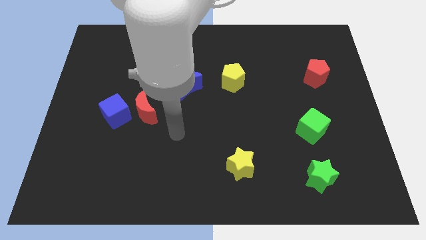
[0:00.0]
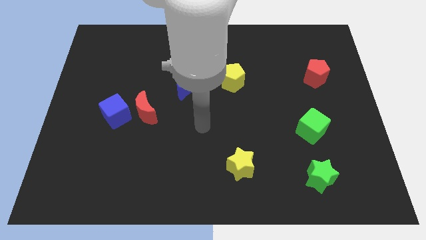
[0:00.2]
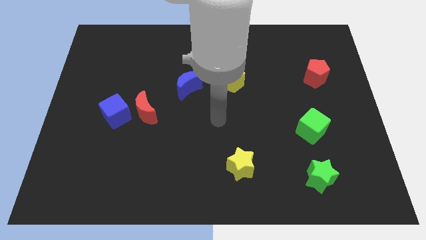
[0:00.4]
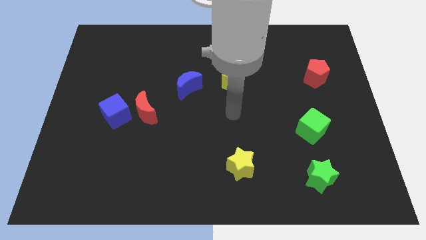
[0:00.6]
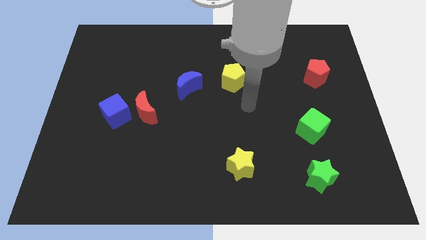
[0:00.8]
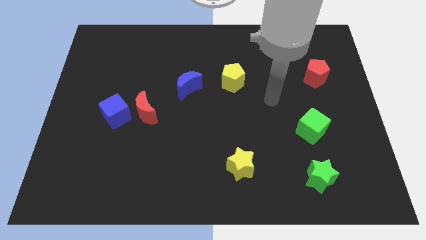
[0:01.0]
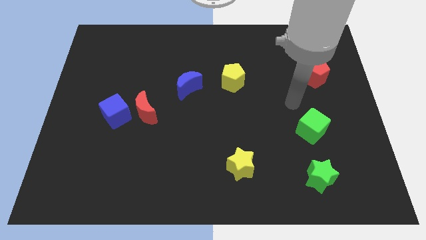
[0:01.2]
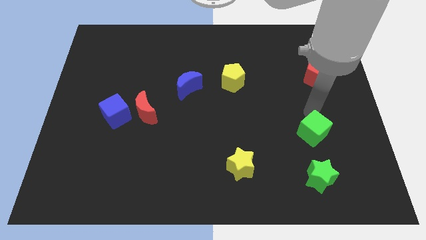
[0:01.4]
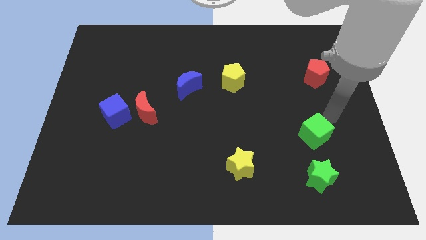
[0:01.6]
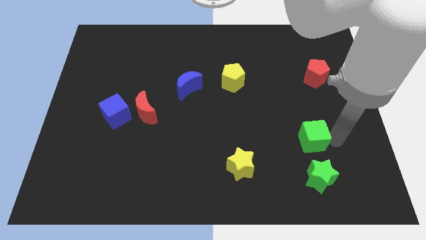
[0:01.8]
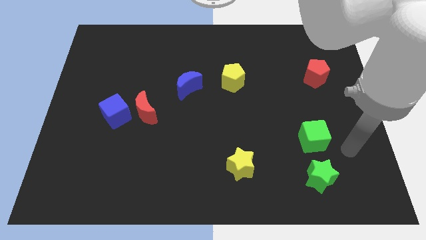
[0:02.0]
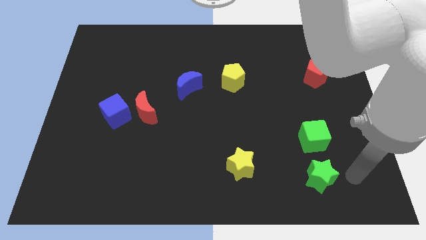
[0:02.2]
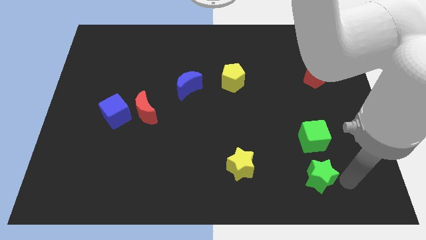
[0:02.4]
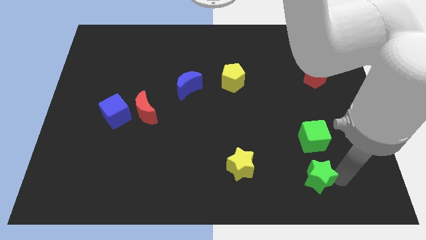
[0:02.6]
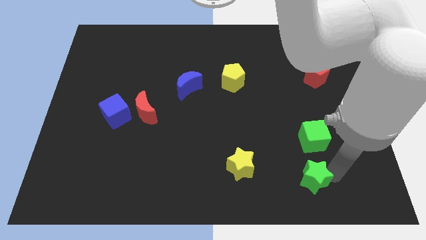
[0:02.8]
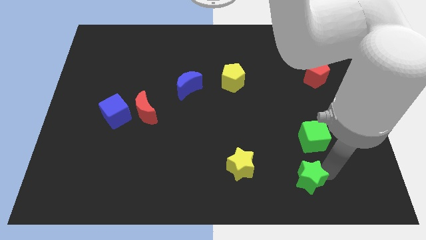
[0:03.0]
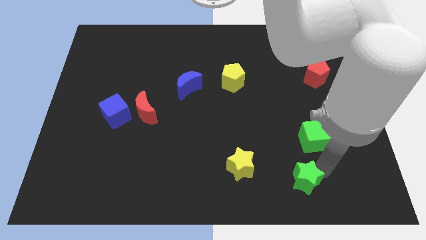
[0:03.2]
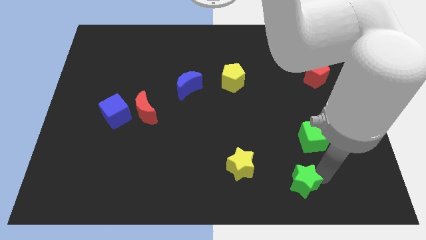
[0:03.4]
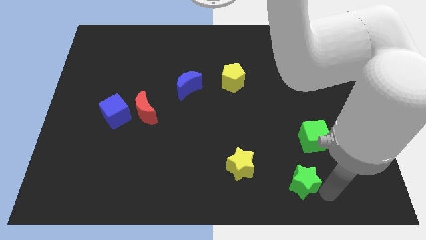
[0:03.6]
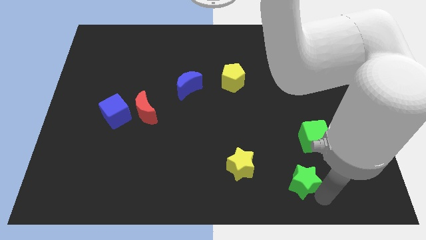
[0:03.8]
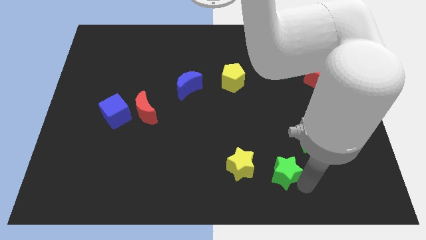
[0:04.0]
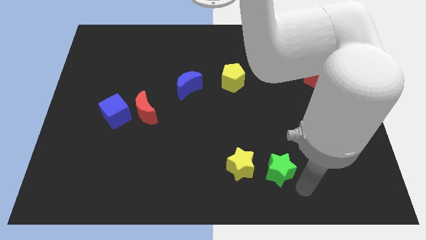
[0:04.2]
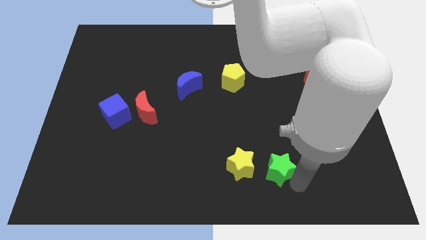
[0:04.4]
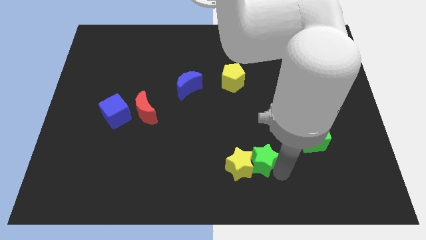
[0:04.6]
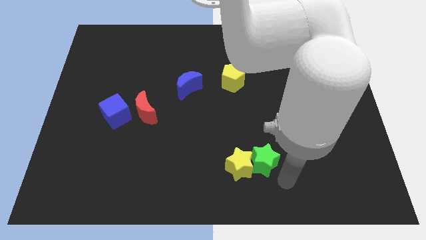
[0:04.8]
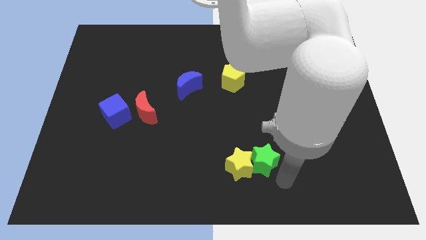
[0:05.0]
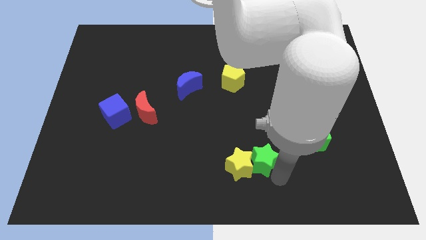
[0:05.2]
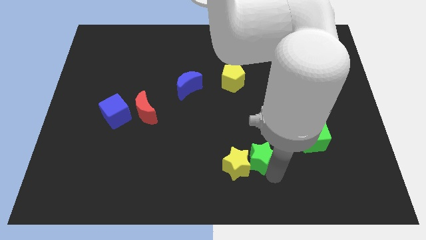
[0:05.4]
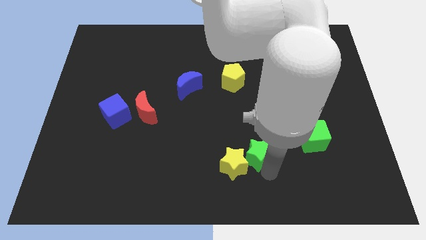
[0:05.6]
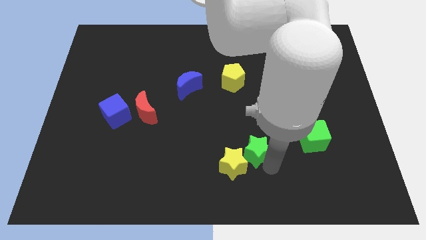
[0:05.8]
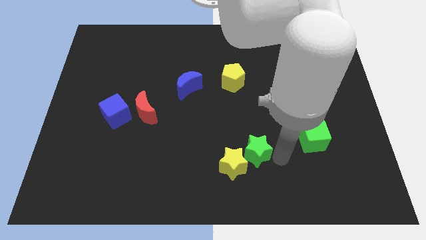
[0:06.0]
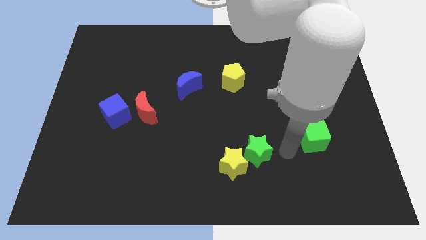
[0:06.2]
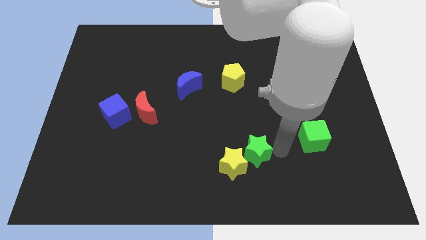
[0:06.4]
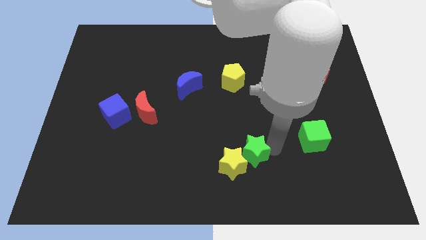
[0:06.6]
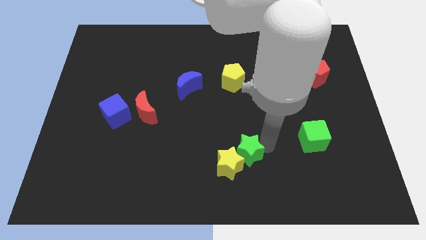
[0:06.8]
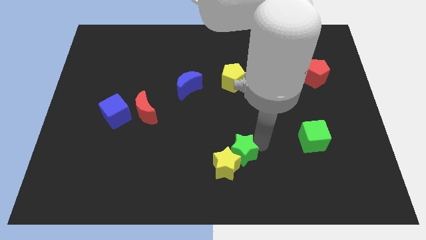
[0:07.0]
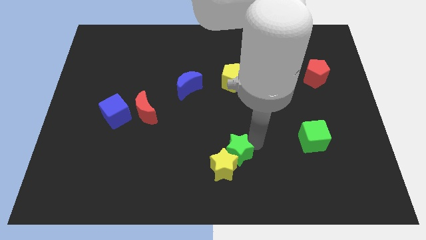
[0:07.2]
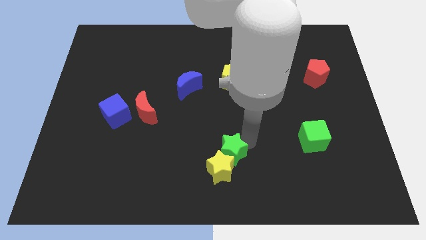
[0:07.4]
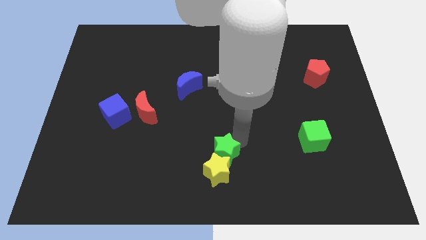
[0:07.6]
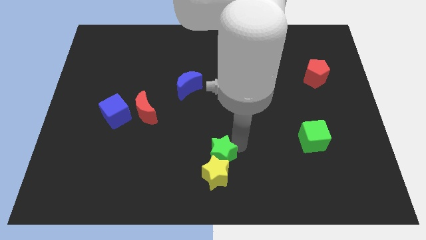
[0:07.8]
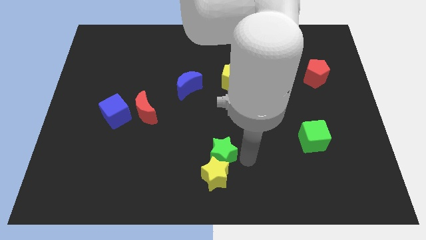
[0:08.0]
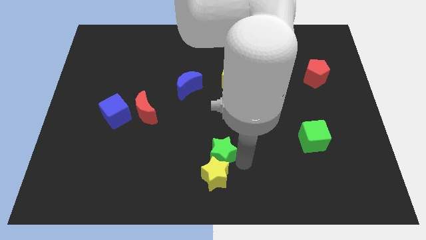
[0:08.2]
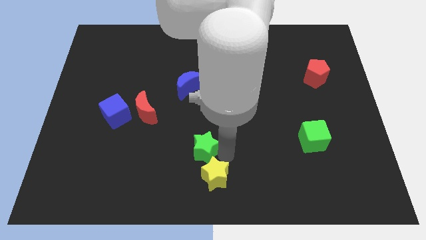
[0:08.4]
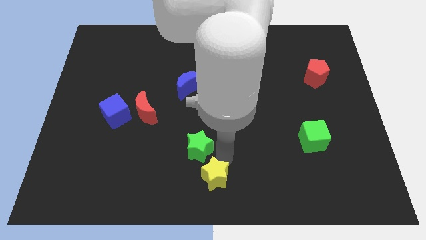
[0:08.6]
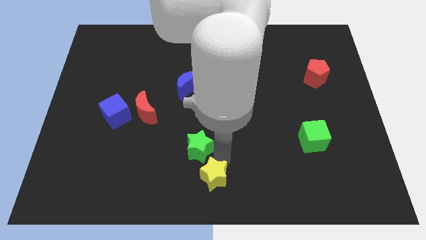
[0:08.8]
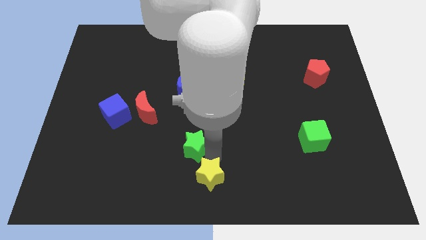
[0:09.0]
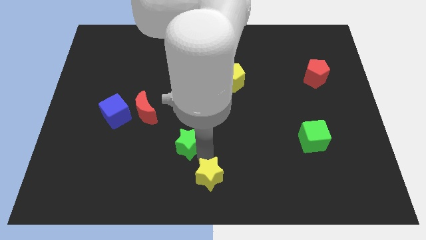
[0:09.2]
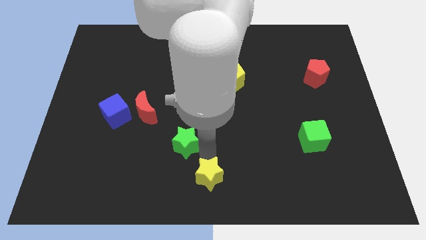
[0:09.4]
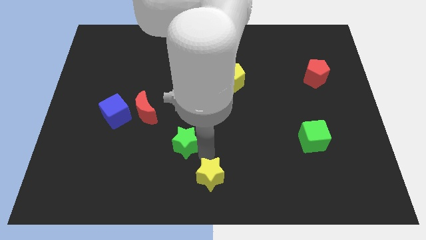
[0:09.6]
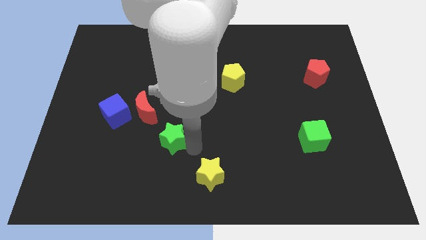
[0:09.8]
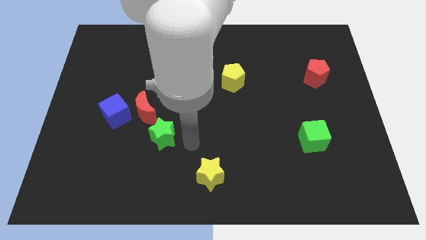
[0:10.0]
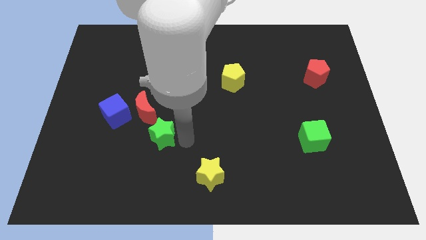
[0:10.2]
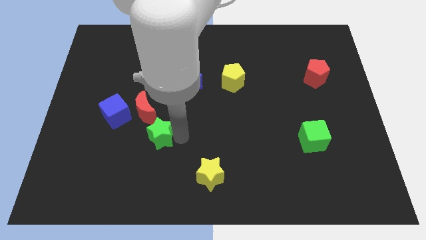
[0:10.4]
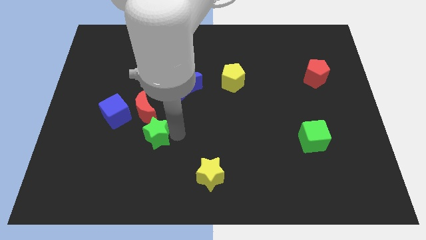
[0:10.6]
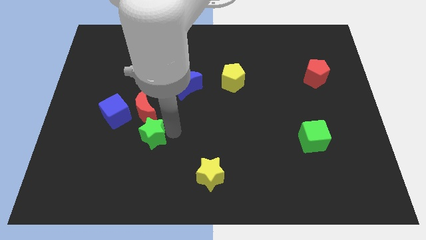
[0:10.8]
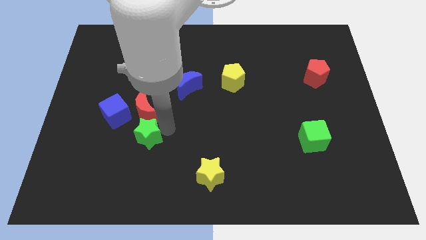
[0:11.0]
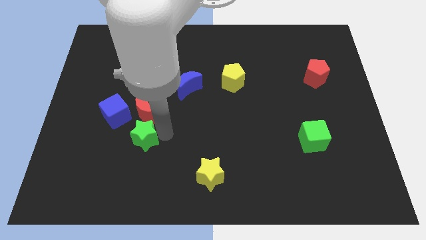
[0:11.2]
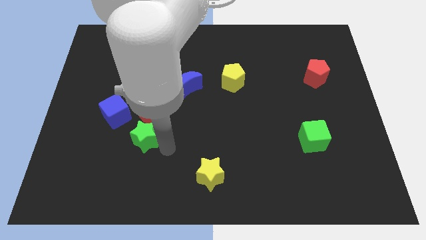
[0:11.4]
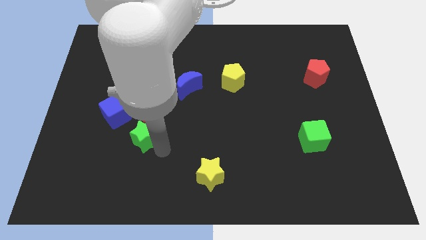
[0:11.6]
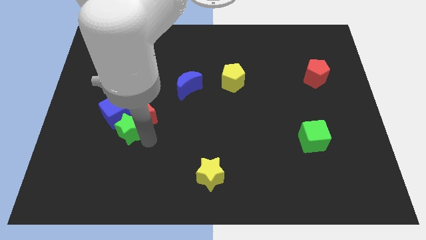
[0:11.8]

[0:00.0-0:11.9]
push the green star next to the blue cube

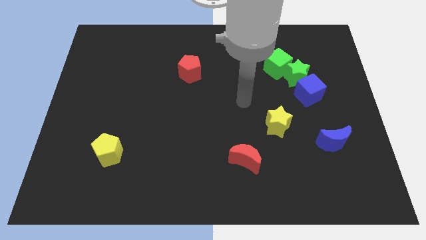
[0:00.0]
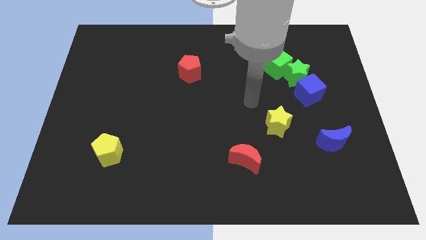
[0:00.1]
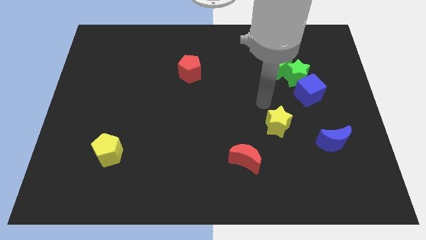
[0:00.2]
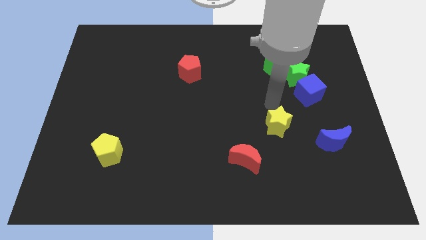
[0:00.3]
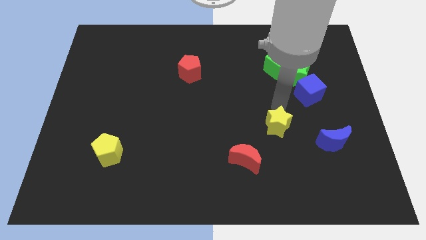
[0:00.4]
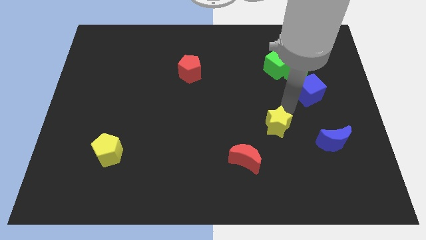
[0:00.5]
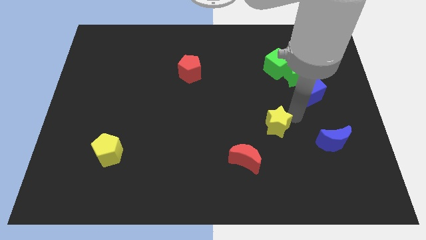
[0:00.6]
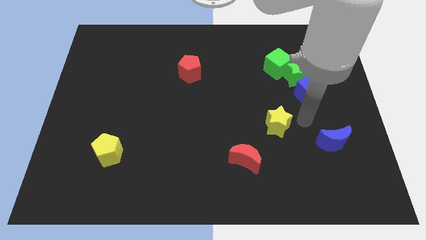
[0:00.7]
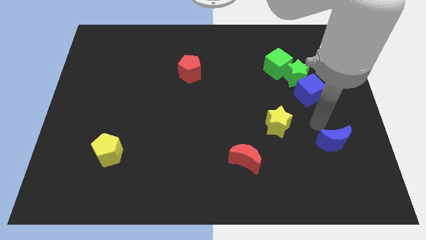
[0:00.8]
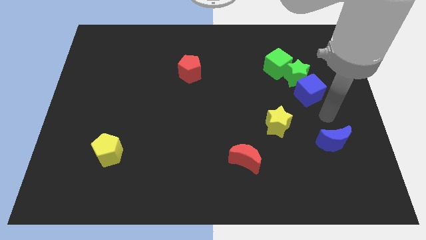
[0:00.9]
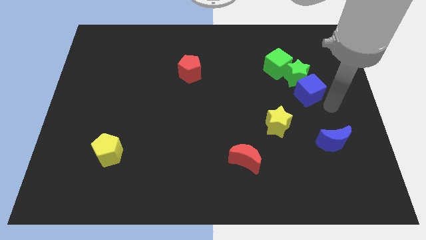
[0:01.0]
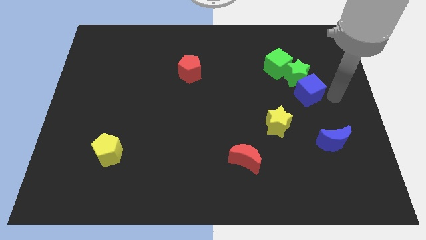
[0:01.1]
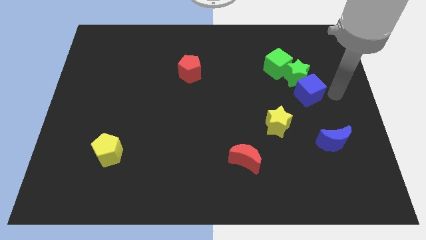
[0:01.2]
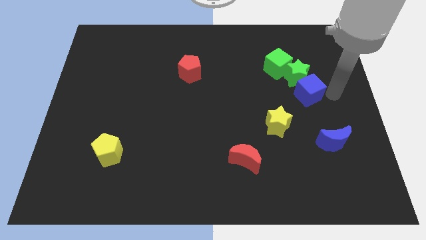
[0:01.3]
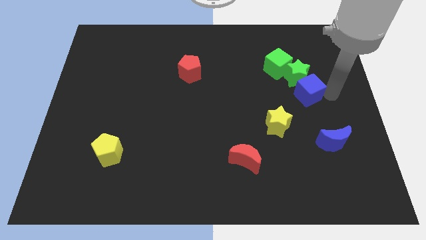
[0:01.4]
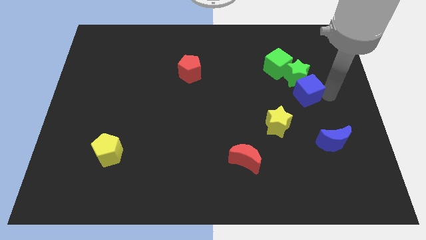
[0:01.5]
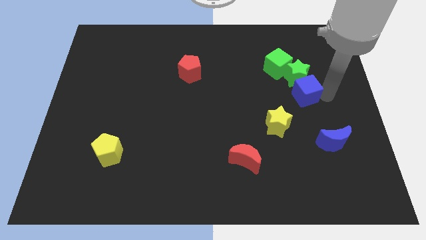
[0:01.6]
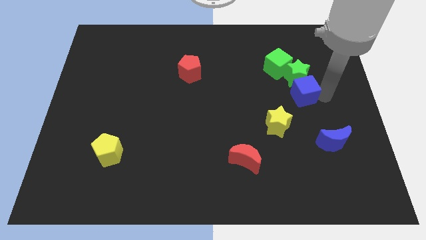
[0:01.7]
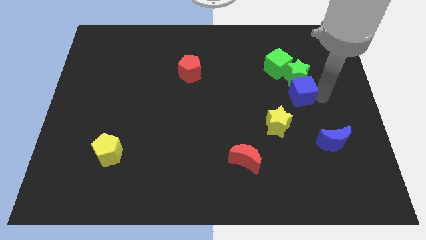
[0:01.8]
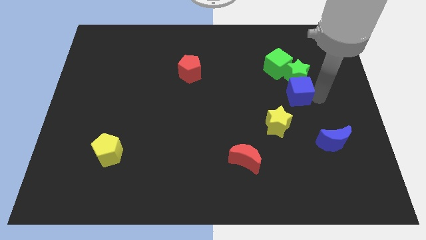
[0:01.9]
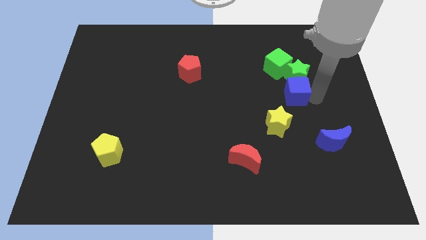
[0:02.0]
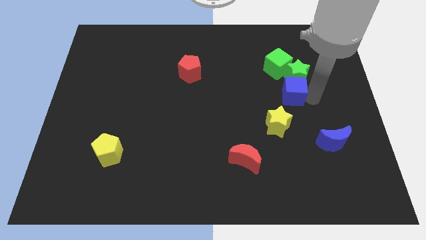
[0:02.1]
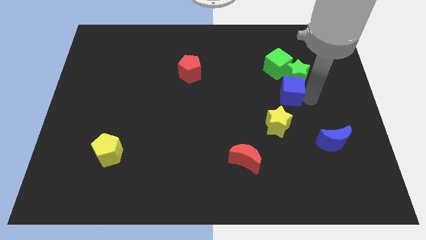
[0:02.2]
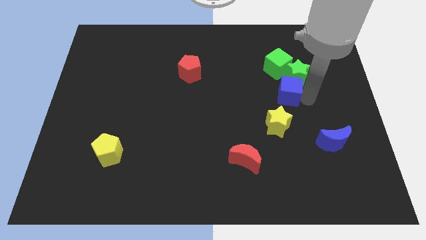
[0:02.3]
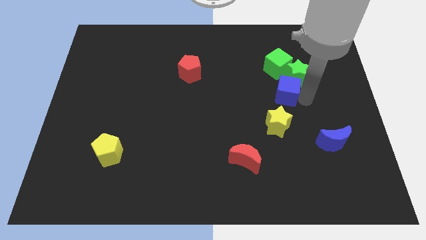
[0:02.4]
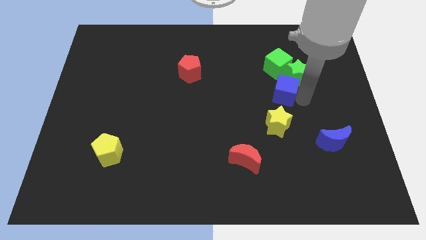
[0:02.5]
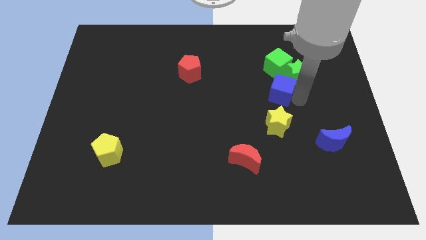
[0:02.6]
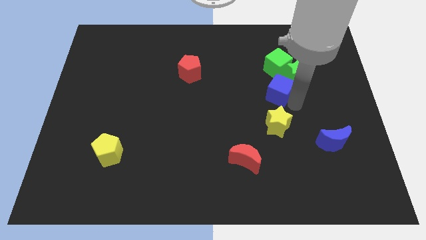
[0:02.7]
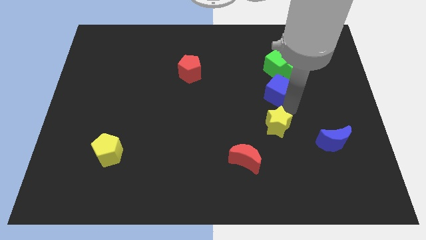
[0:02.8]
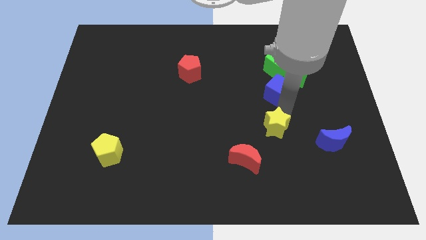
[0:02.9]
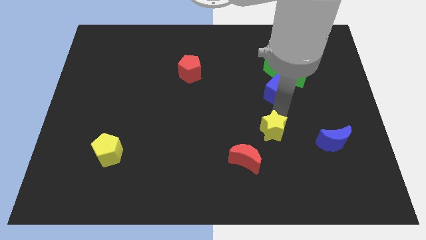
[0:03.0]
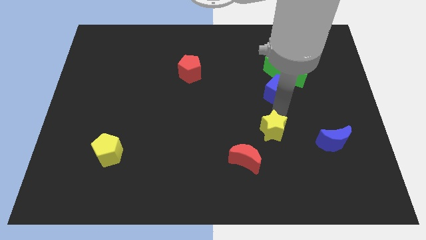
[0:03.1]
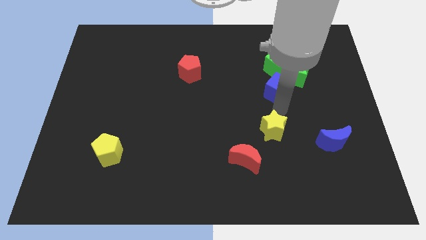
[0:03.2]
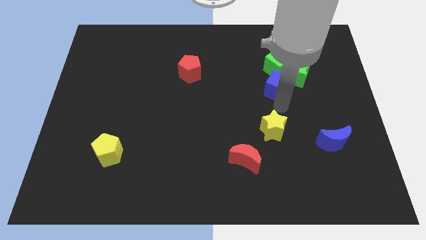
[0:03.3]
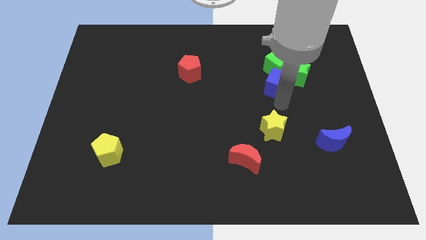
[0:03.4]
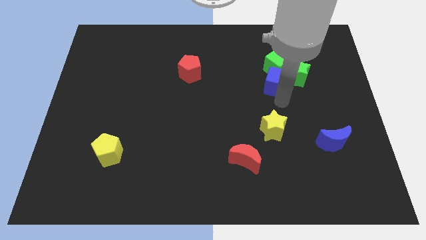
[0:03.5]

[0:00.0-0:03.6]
slide the blue cube close to the green cube
